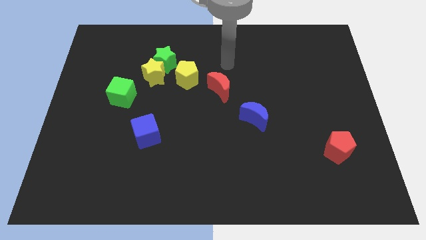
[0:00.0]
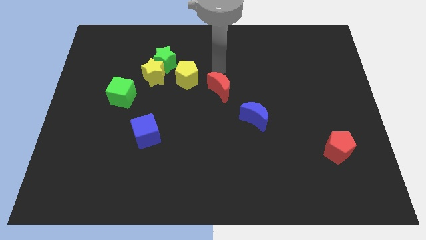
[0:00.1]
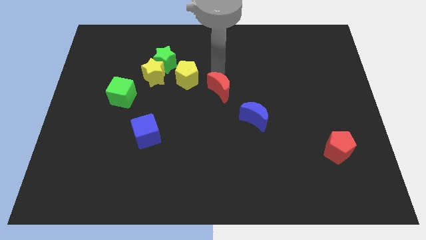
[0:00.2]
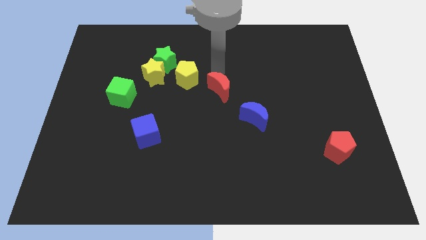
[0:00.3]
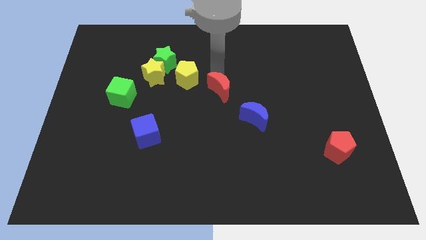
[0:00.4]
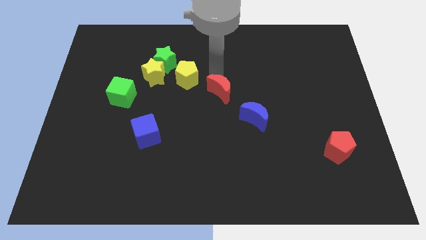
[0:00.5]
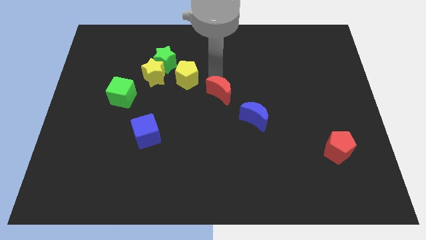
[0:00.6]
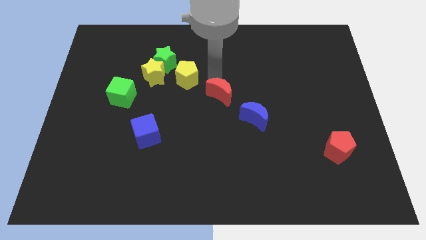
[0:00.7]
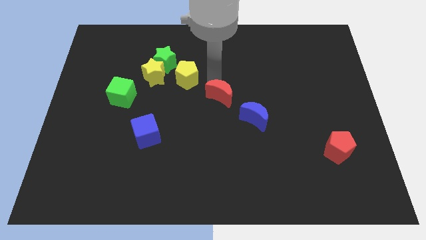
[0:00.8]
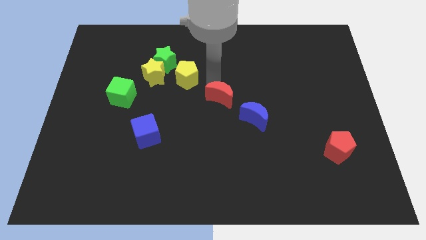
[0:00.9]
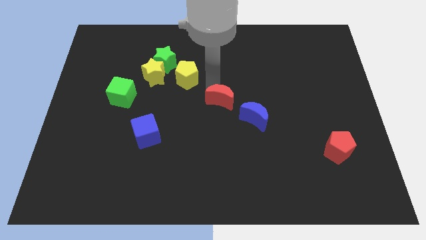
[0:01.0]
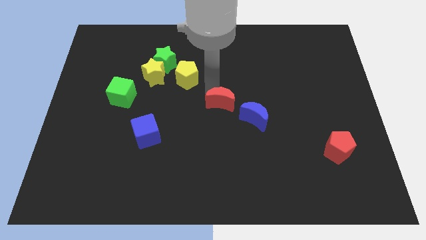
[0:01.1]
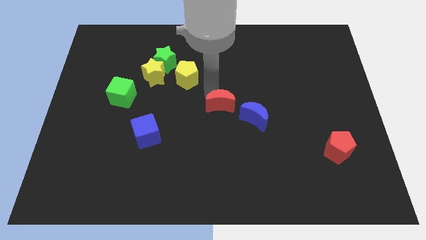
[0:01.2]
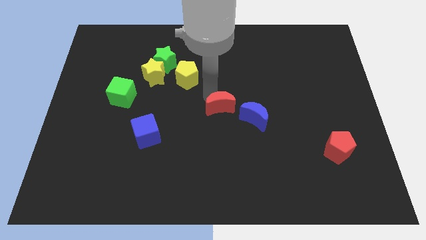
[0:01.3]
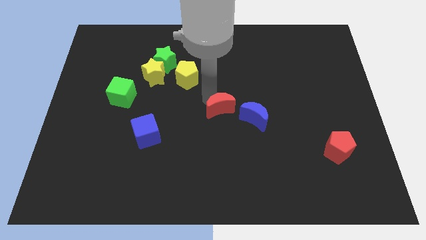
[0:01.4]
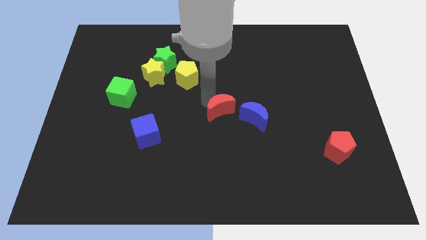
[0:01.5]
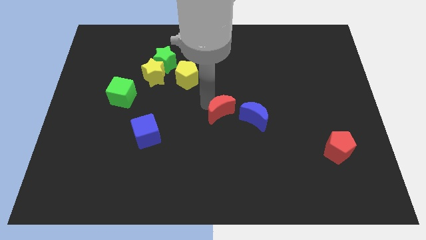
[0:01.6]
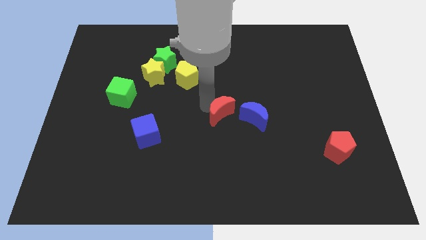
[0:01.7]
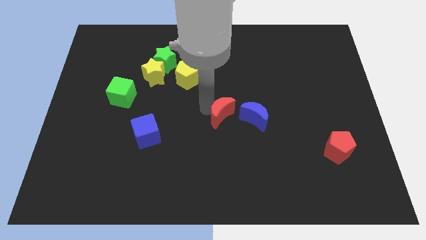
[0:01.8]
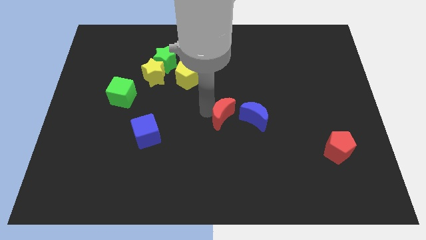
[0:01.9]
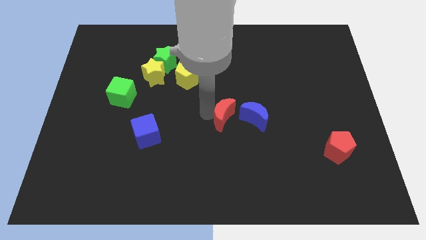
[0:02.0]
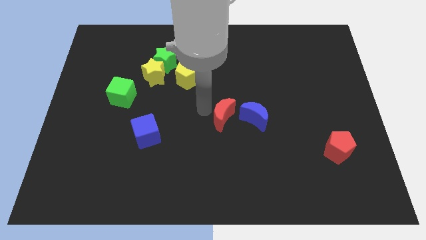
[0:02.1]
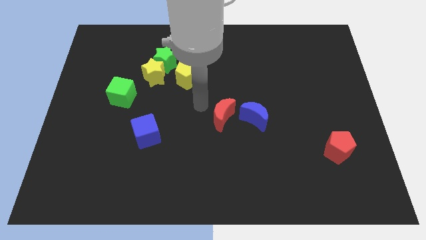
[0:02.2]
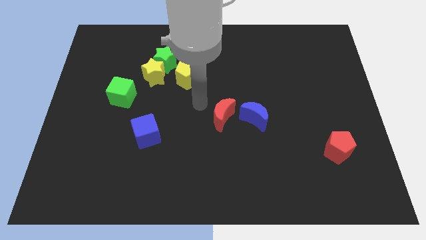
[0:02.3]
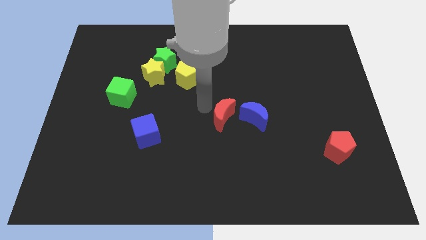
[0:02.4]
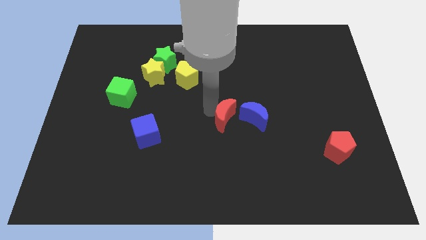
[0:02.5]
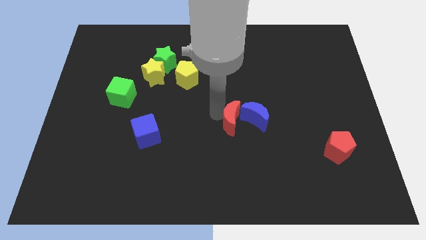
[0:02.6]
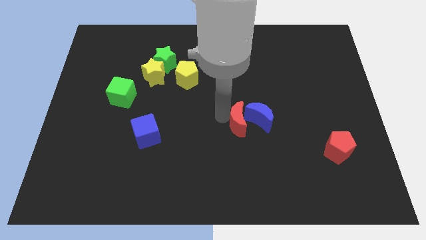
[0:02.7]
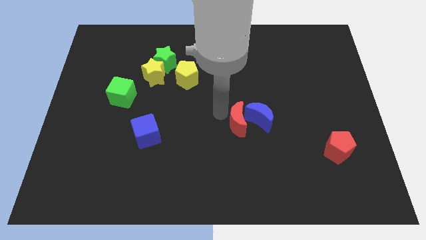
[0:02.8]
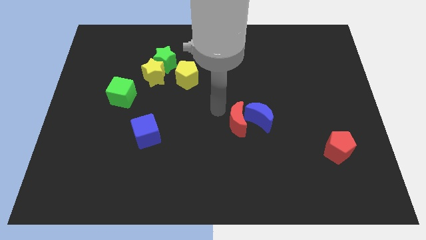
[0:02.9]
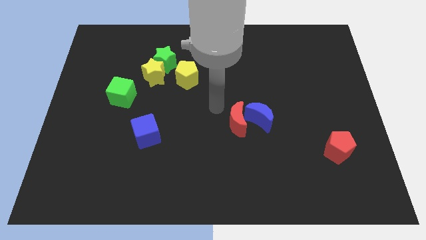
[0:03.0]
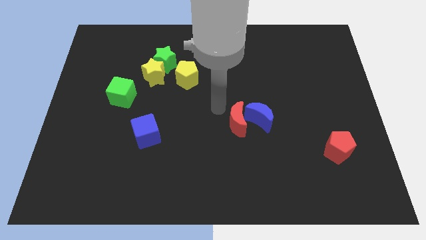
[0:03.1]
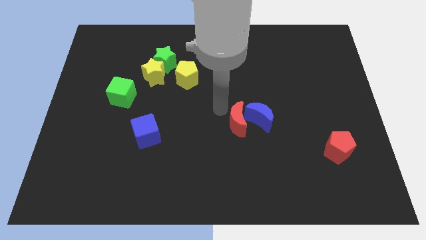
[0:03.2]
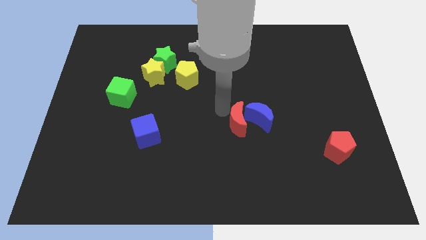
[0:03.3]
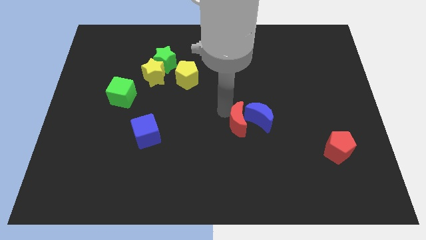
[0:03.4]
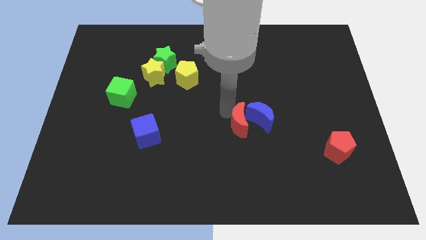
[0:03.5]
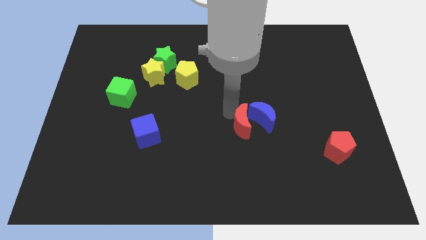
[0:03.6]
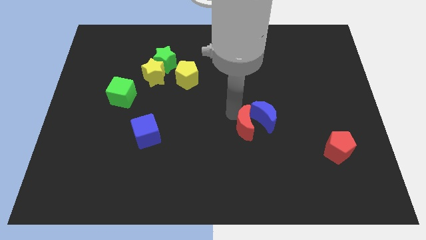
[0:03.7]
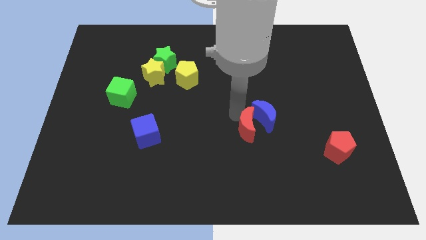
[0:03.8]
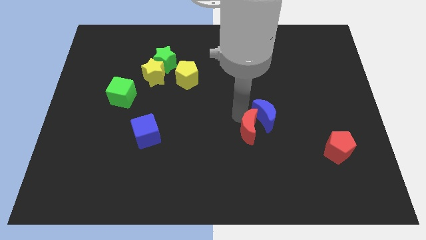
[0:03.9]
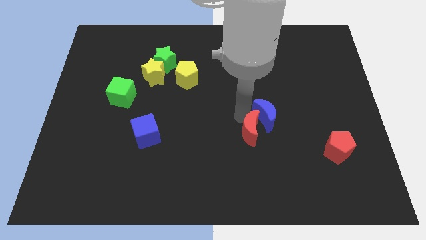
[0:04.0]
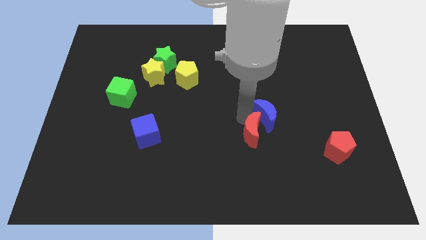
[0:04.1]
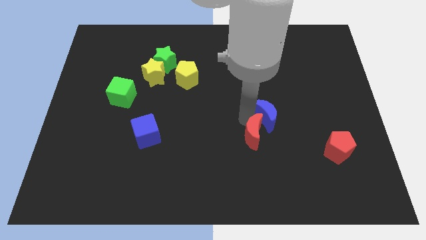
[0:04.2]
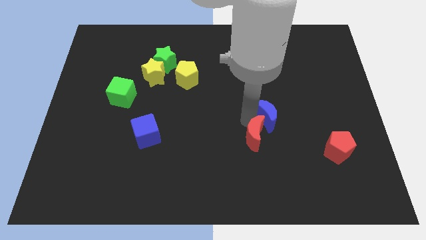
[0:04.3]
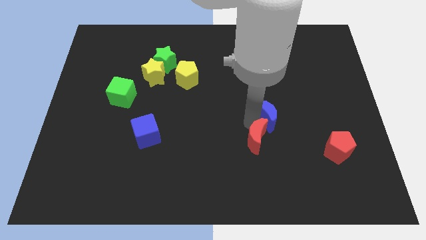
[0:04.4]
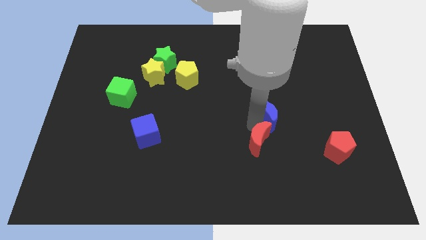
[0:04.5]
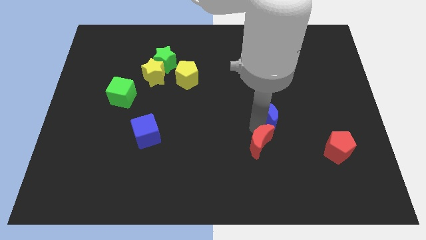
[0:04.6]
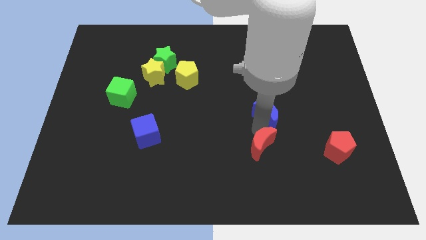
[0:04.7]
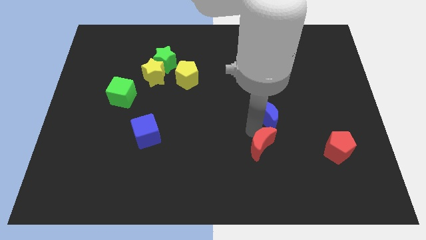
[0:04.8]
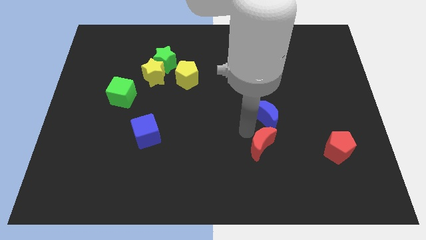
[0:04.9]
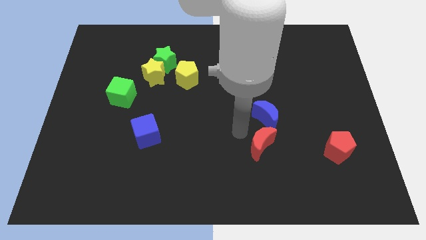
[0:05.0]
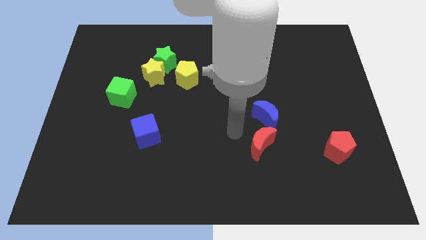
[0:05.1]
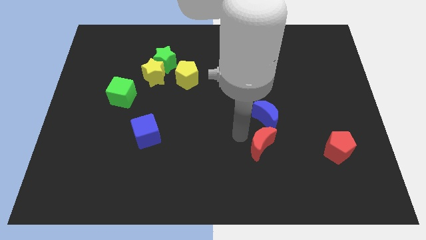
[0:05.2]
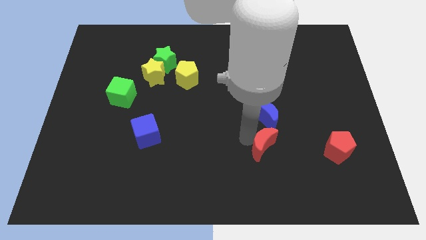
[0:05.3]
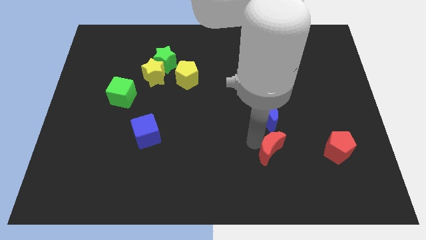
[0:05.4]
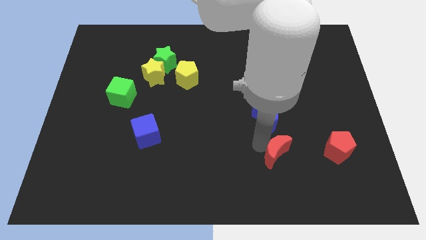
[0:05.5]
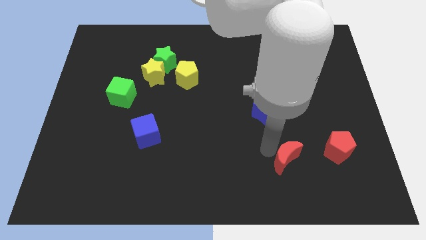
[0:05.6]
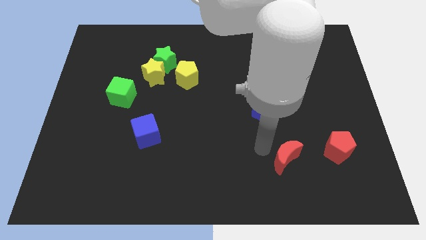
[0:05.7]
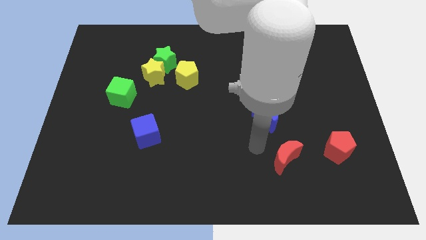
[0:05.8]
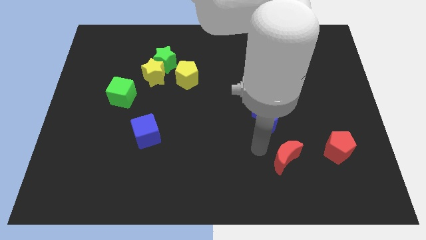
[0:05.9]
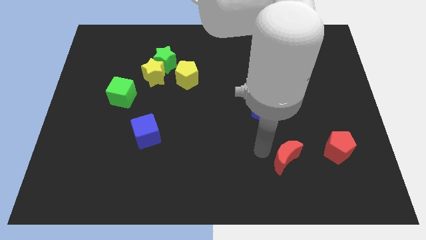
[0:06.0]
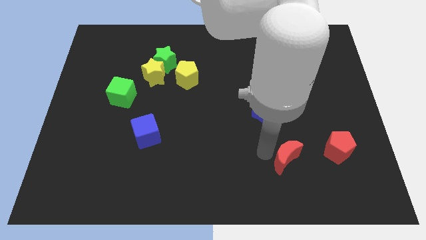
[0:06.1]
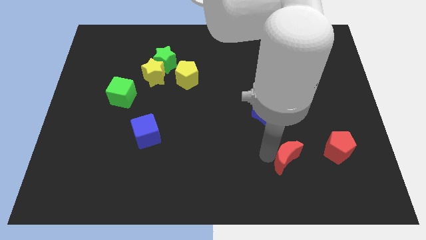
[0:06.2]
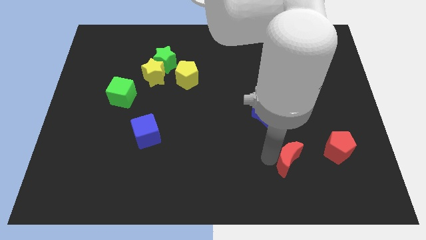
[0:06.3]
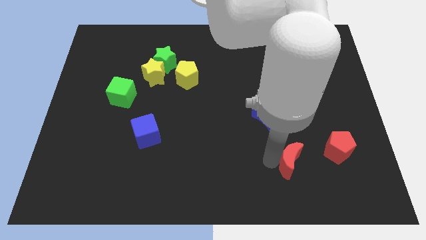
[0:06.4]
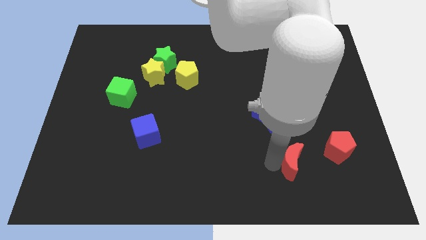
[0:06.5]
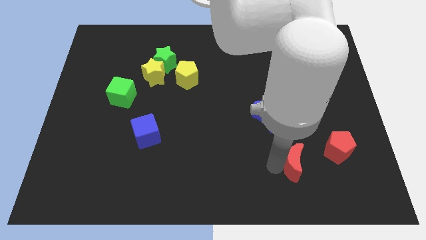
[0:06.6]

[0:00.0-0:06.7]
push the red moon to the bottom left side of the red pentagon

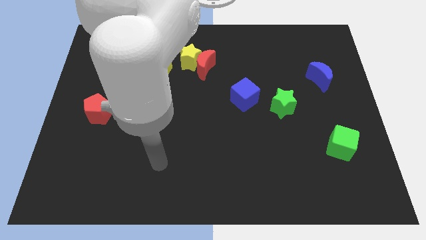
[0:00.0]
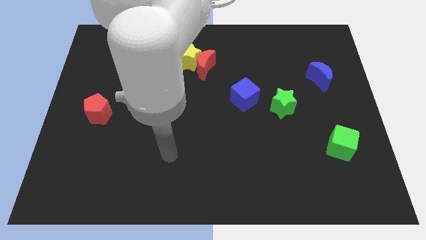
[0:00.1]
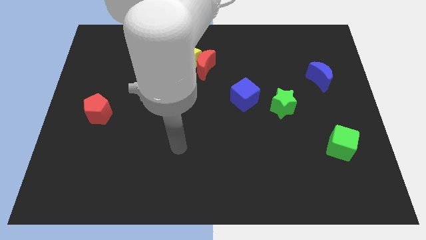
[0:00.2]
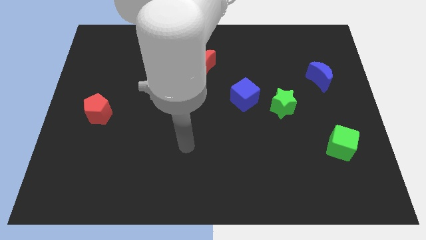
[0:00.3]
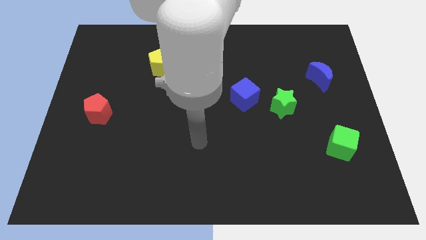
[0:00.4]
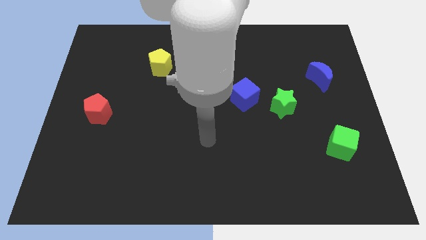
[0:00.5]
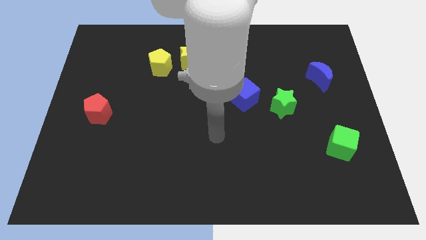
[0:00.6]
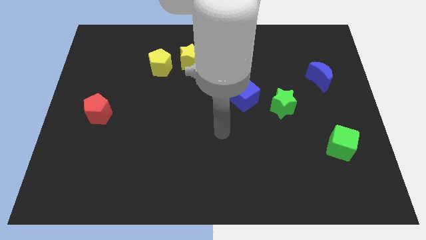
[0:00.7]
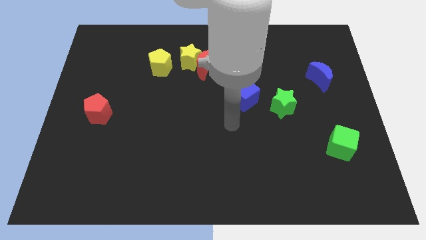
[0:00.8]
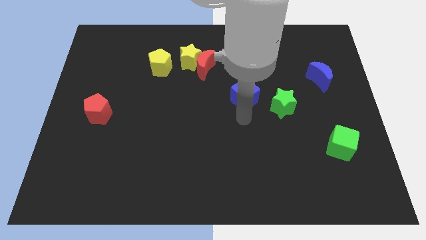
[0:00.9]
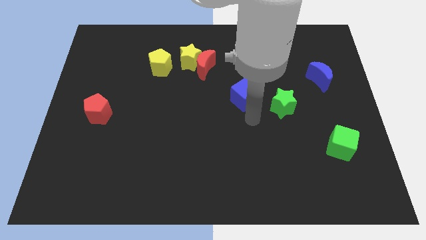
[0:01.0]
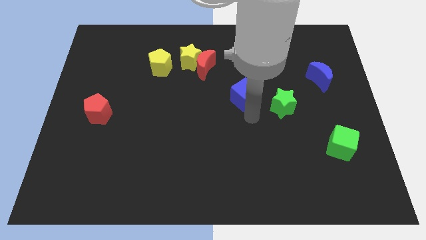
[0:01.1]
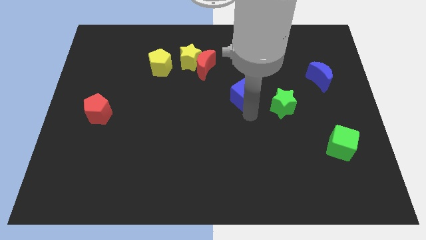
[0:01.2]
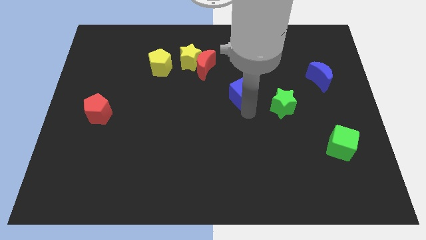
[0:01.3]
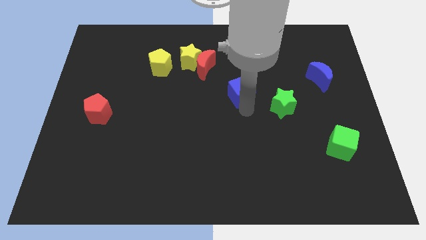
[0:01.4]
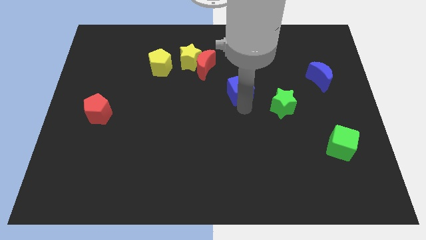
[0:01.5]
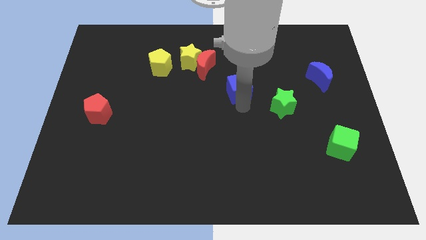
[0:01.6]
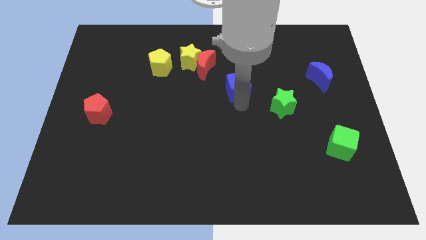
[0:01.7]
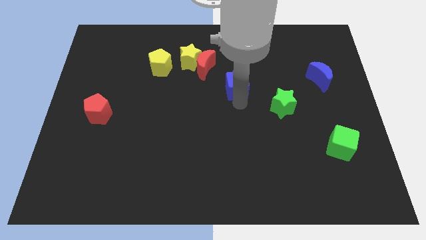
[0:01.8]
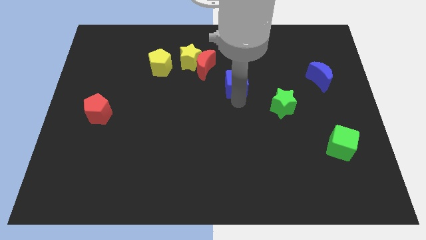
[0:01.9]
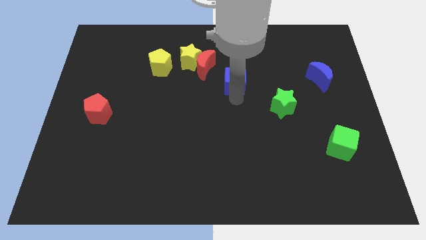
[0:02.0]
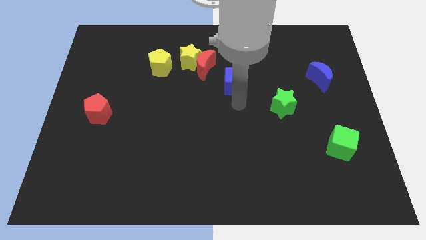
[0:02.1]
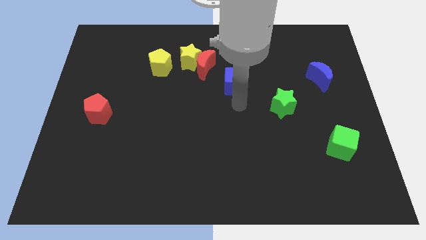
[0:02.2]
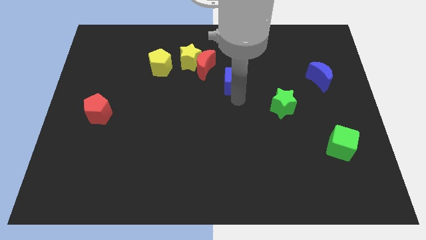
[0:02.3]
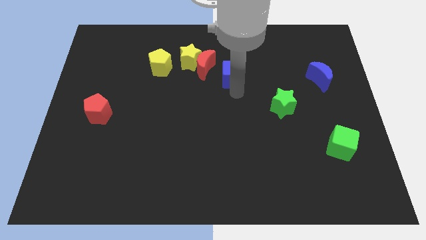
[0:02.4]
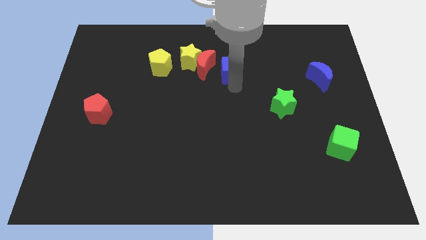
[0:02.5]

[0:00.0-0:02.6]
move the blue cube right of the yellow star
